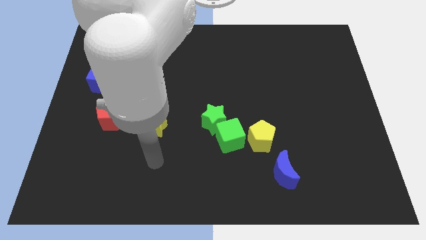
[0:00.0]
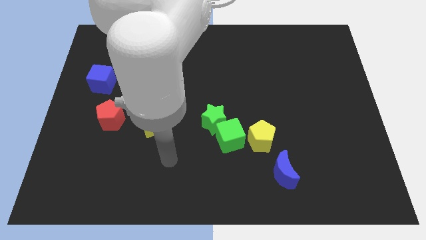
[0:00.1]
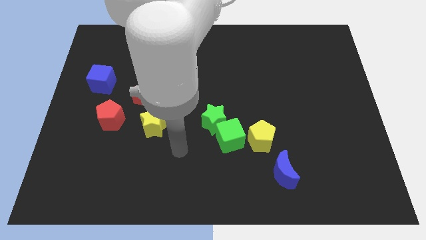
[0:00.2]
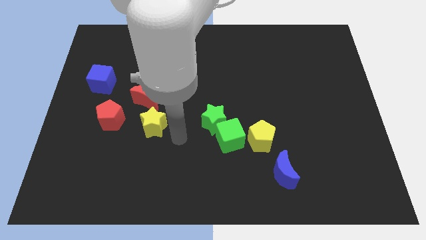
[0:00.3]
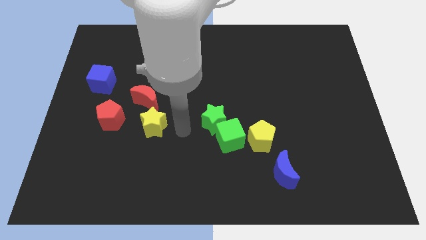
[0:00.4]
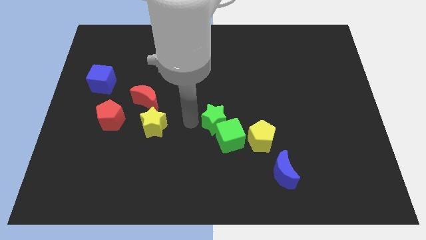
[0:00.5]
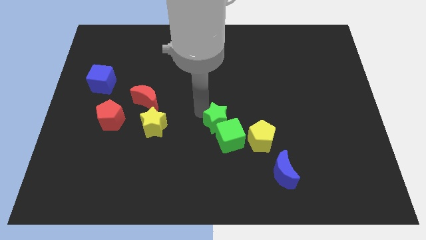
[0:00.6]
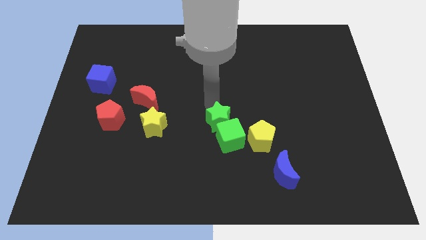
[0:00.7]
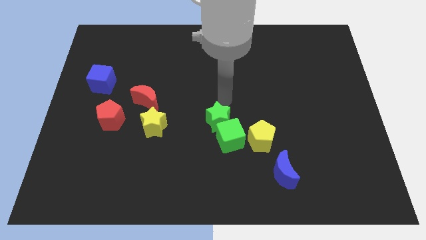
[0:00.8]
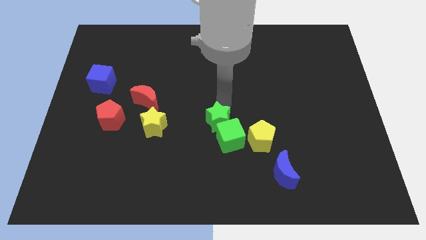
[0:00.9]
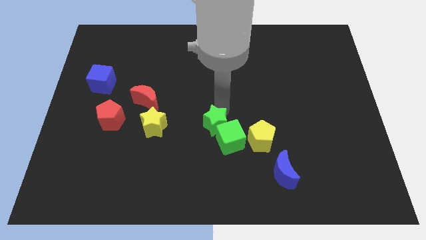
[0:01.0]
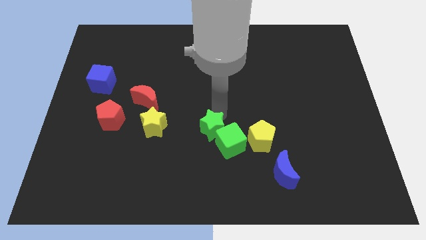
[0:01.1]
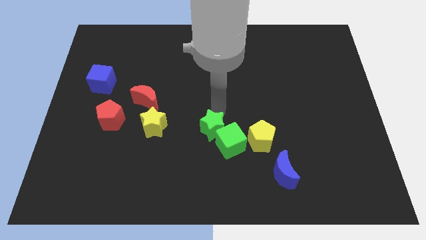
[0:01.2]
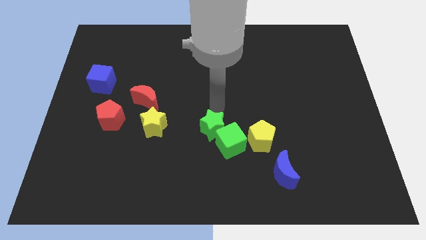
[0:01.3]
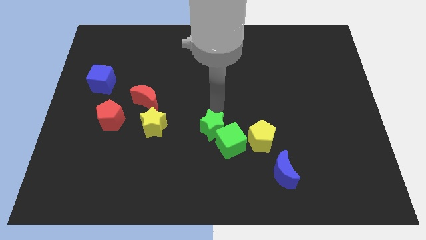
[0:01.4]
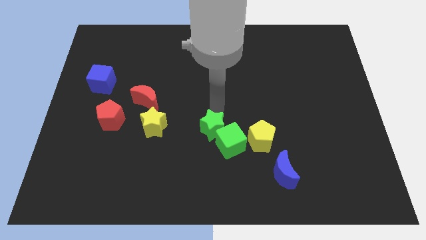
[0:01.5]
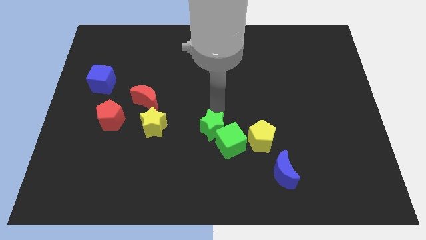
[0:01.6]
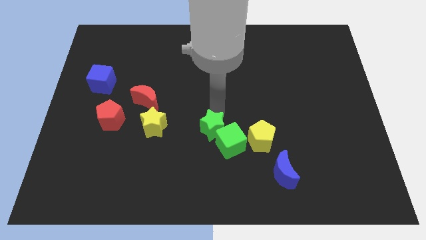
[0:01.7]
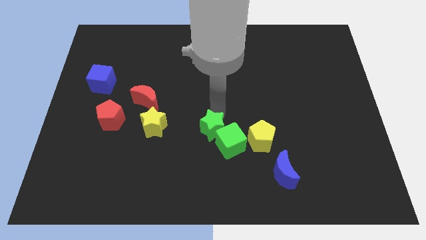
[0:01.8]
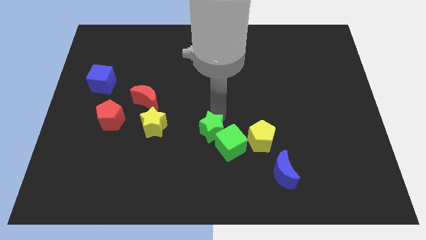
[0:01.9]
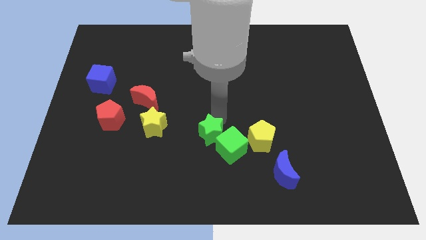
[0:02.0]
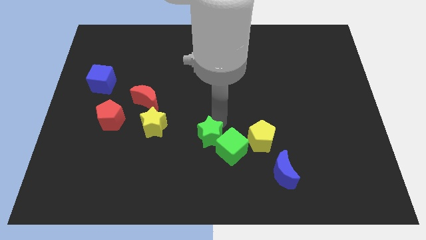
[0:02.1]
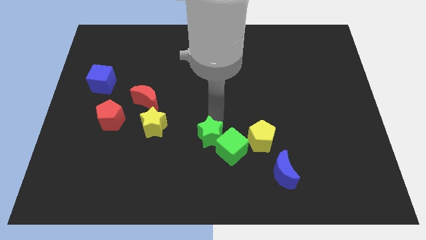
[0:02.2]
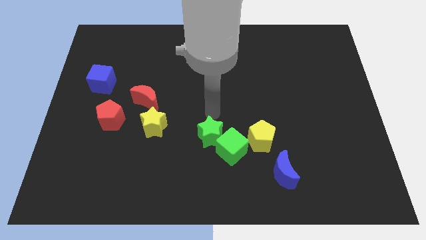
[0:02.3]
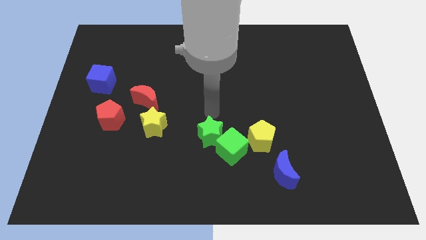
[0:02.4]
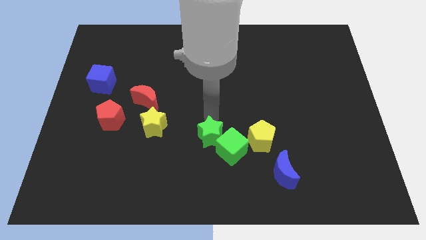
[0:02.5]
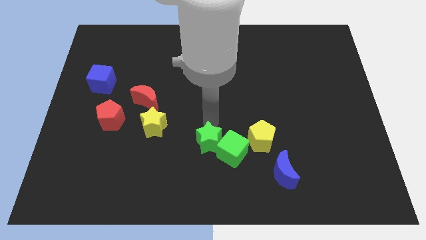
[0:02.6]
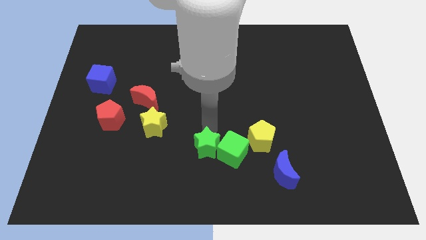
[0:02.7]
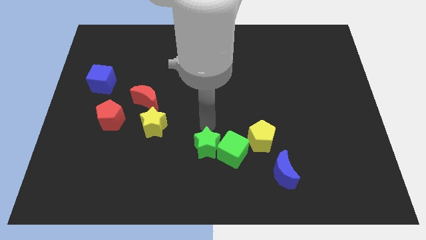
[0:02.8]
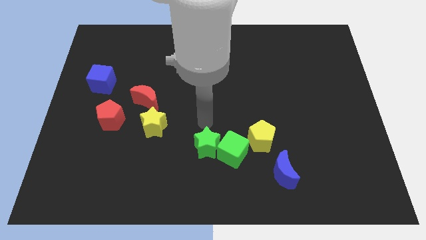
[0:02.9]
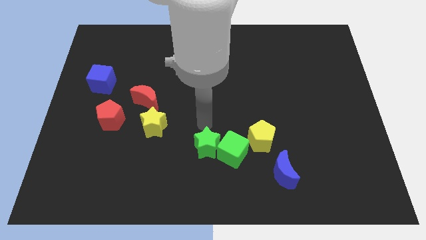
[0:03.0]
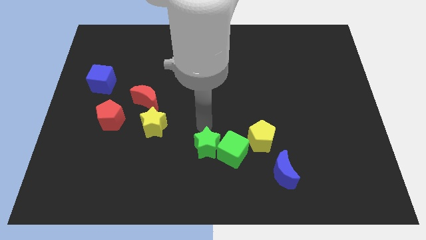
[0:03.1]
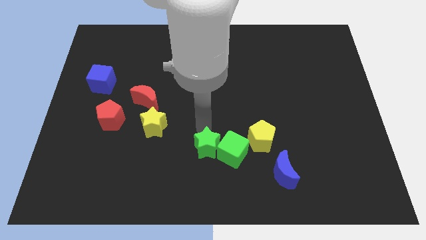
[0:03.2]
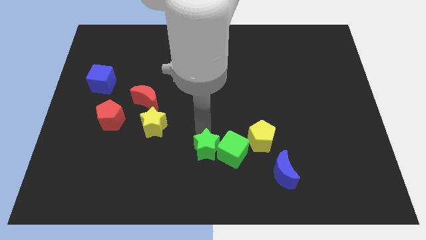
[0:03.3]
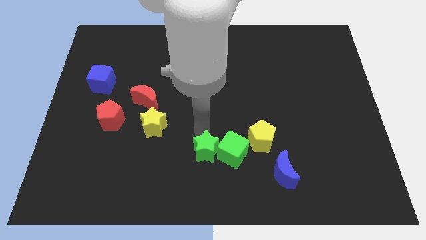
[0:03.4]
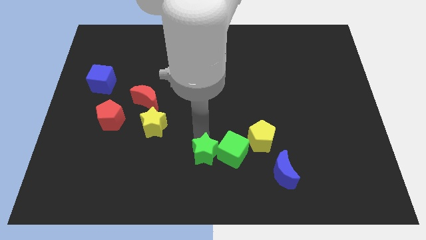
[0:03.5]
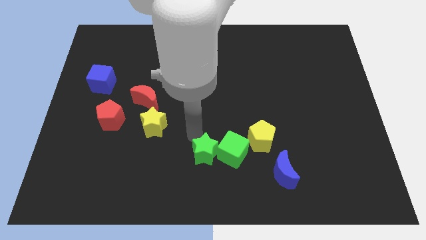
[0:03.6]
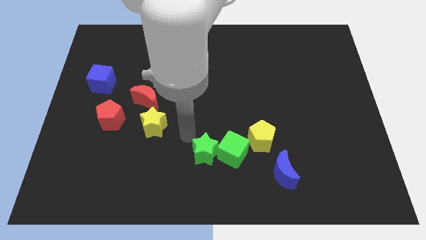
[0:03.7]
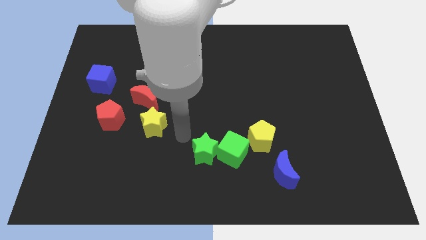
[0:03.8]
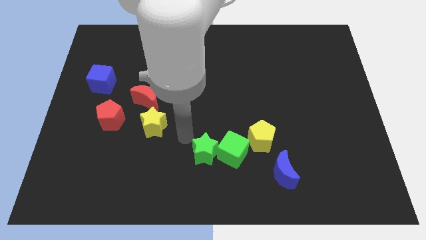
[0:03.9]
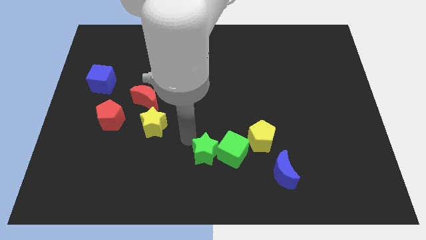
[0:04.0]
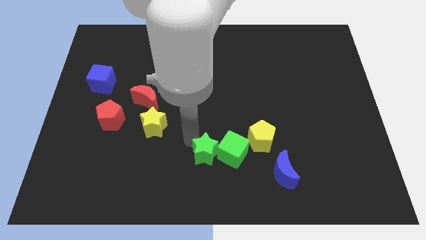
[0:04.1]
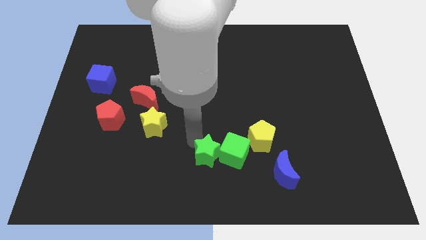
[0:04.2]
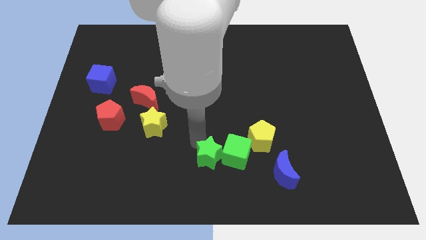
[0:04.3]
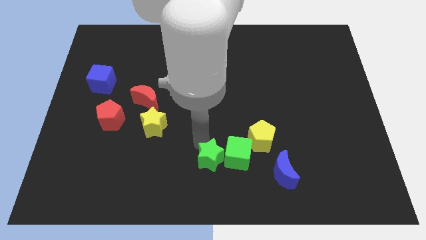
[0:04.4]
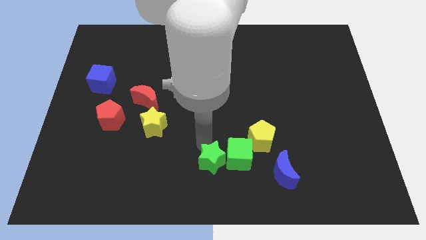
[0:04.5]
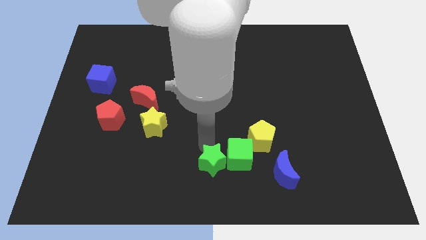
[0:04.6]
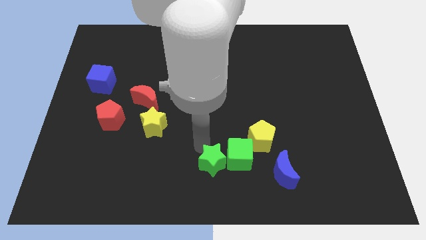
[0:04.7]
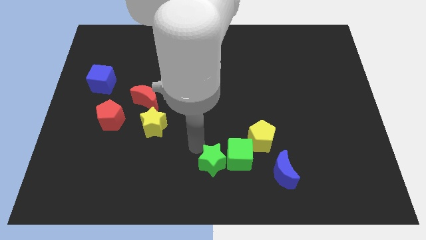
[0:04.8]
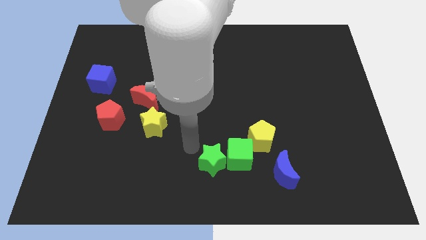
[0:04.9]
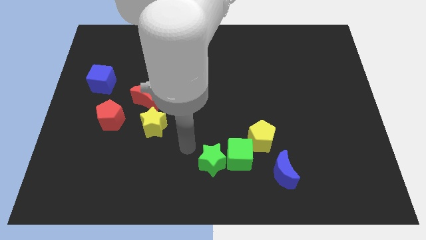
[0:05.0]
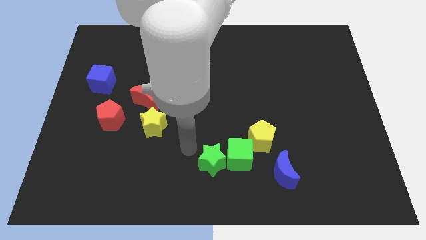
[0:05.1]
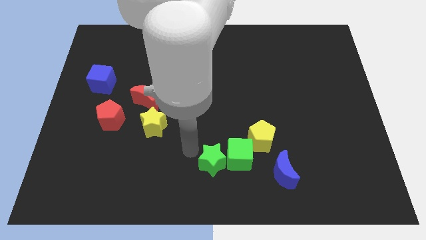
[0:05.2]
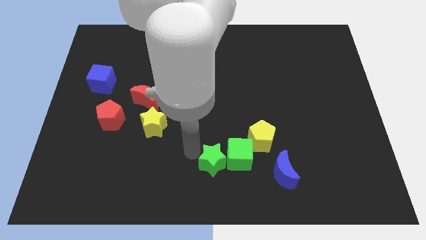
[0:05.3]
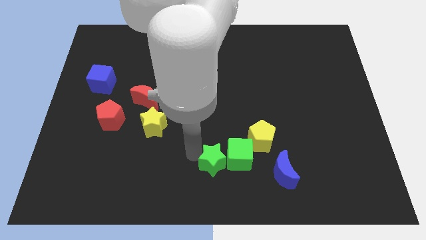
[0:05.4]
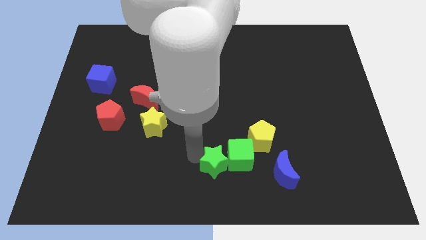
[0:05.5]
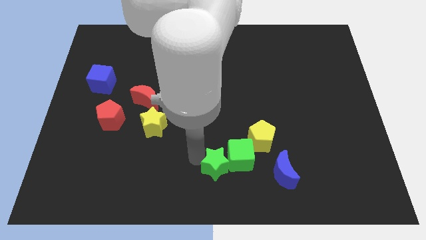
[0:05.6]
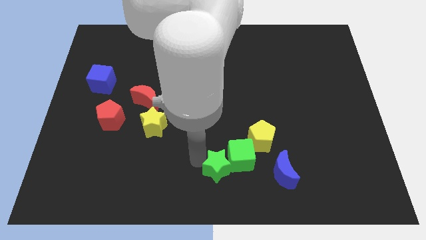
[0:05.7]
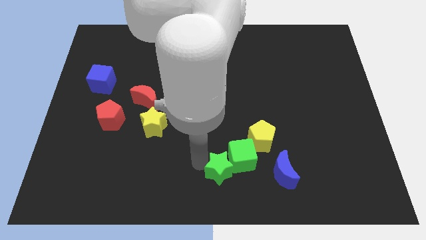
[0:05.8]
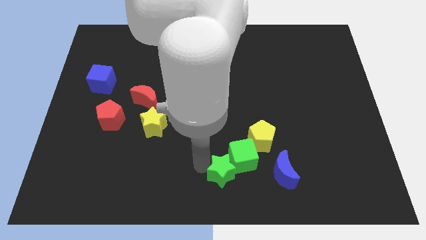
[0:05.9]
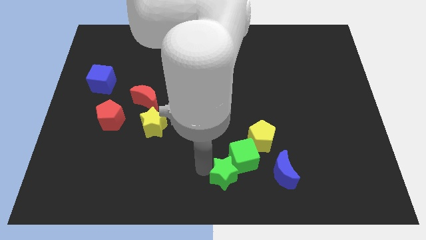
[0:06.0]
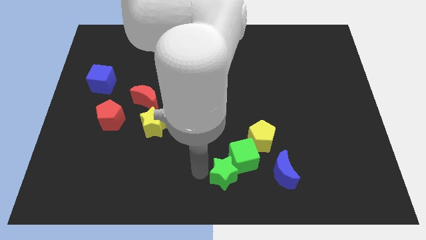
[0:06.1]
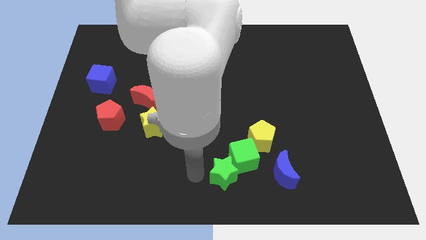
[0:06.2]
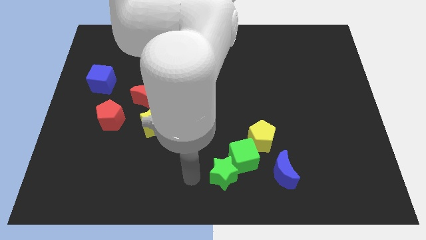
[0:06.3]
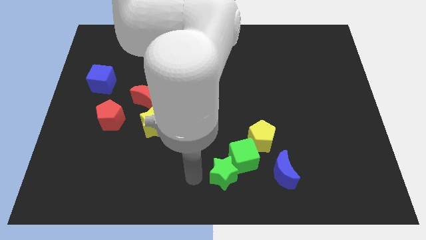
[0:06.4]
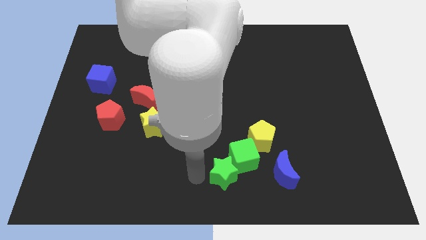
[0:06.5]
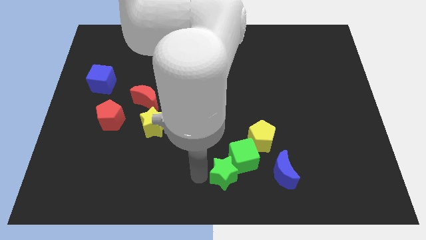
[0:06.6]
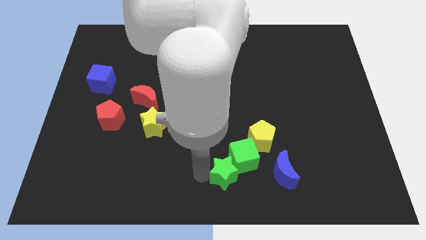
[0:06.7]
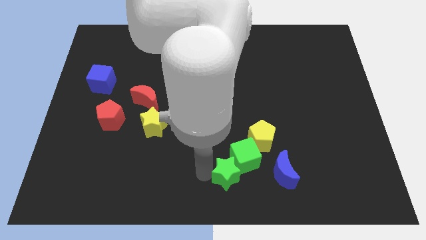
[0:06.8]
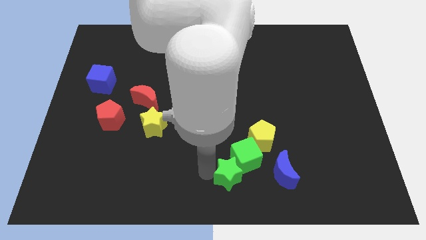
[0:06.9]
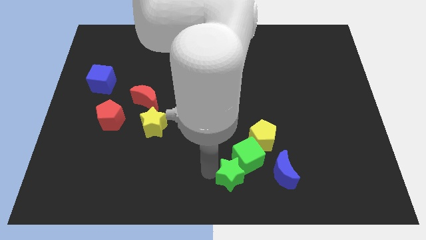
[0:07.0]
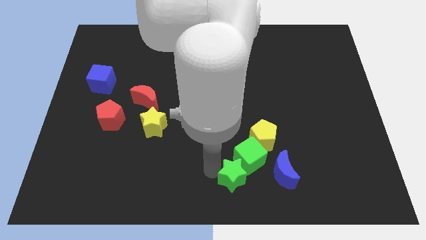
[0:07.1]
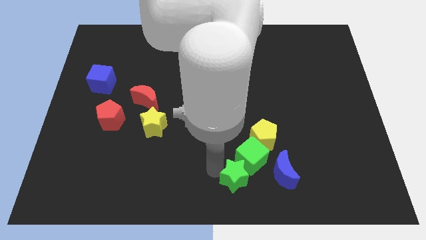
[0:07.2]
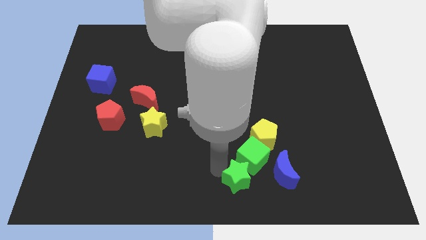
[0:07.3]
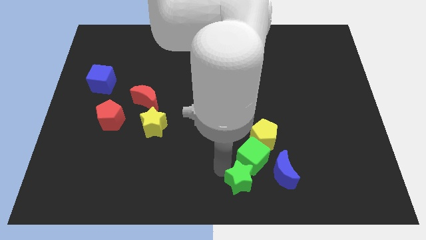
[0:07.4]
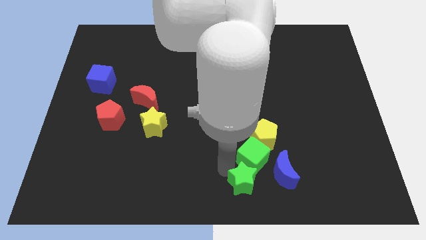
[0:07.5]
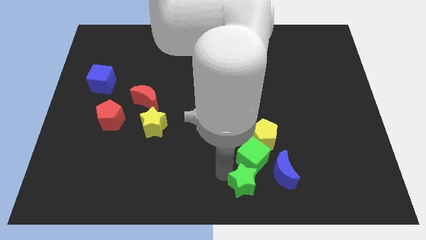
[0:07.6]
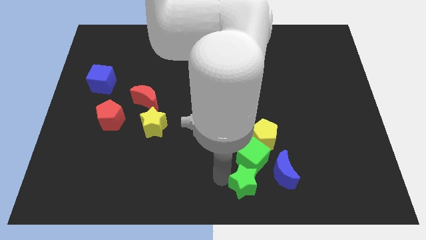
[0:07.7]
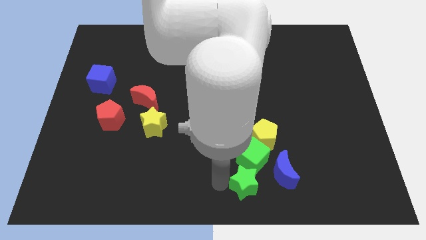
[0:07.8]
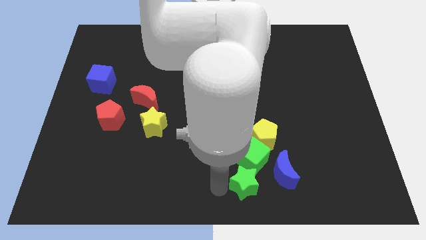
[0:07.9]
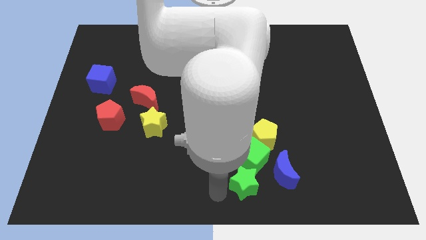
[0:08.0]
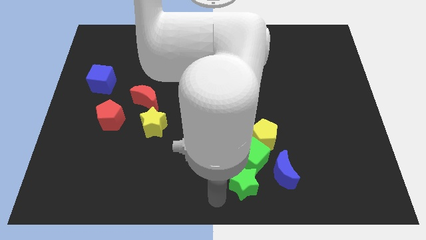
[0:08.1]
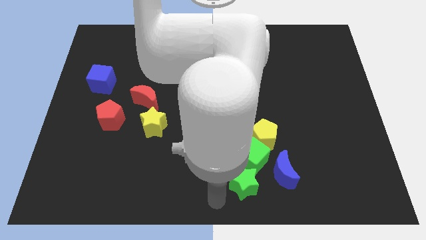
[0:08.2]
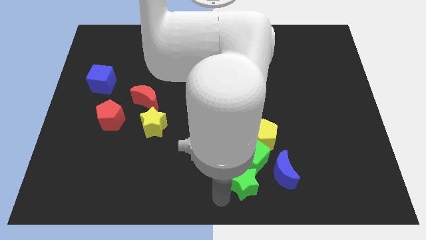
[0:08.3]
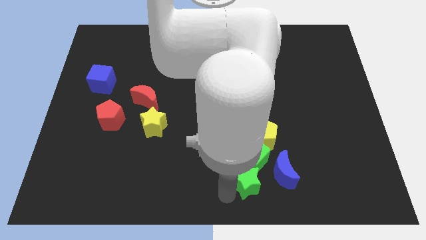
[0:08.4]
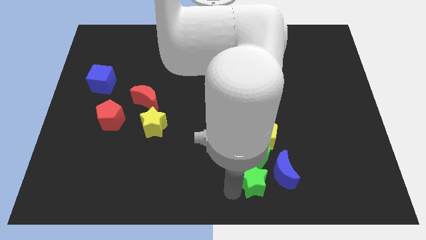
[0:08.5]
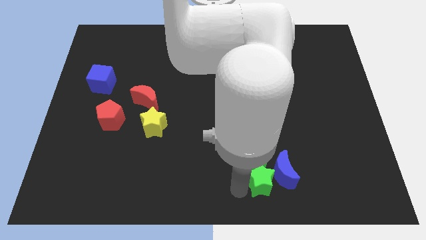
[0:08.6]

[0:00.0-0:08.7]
move the green star close to the blue moon
